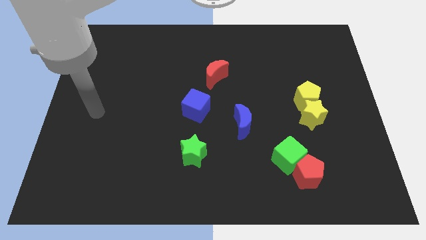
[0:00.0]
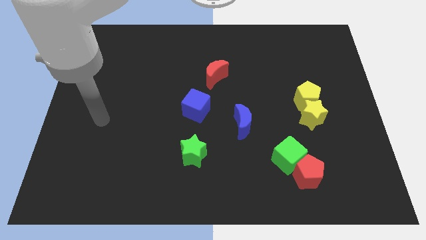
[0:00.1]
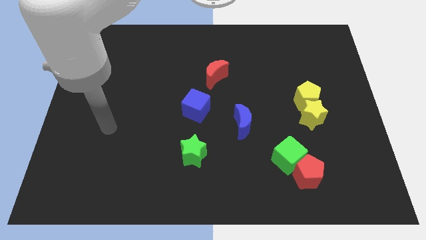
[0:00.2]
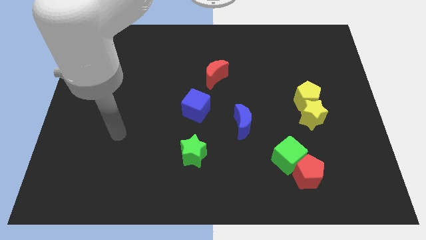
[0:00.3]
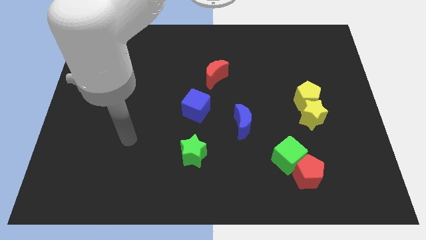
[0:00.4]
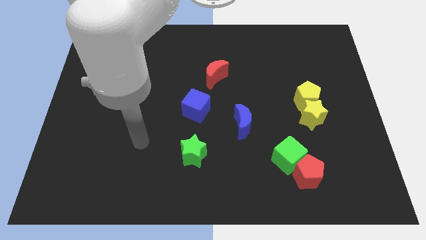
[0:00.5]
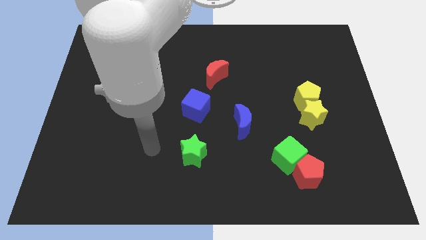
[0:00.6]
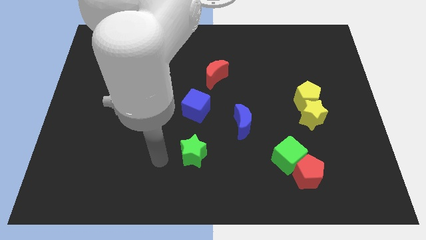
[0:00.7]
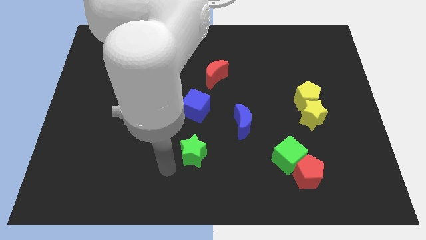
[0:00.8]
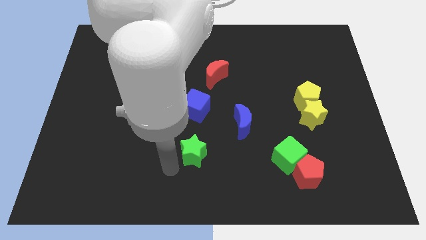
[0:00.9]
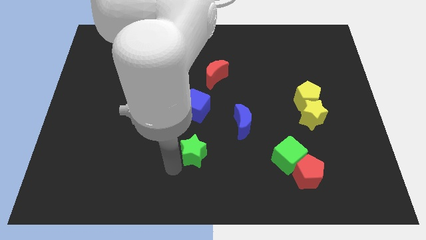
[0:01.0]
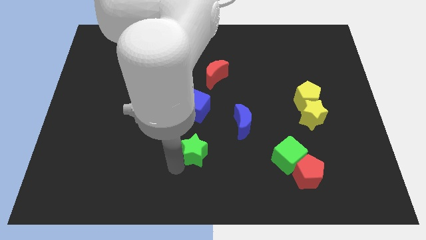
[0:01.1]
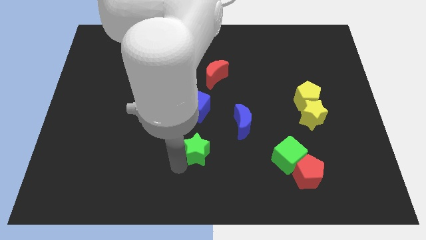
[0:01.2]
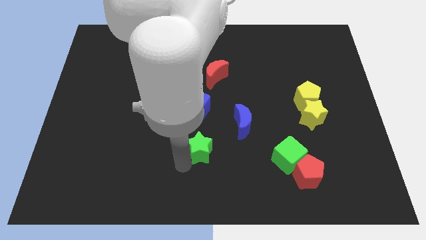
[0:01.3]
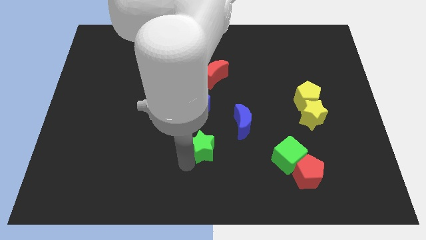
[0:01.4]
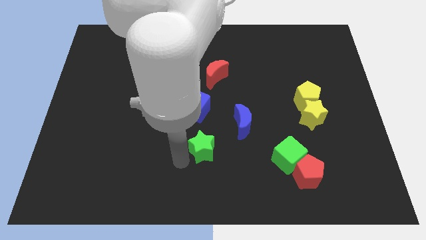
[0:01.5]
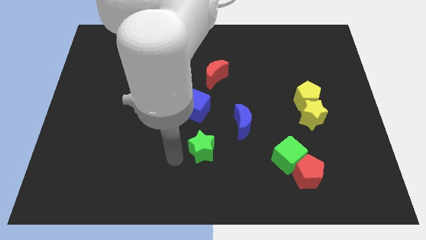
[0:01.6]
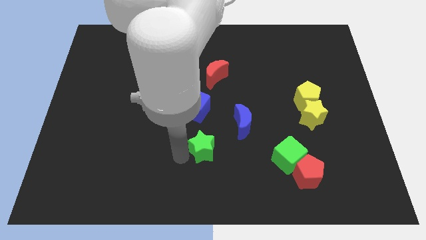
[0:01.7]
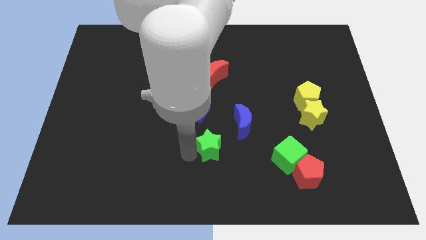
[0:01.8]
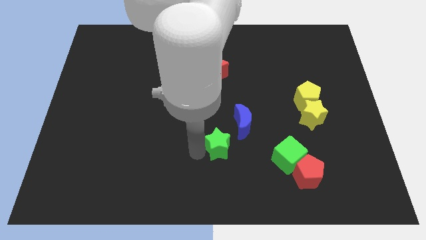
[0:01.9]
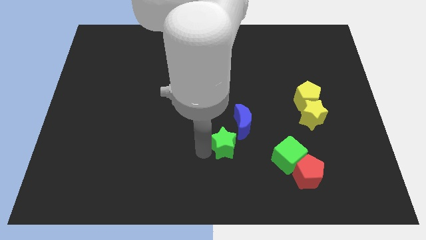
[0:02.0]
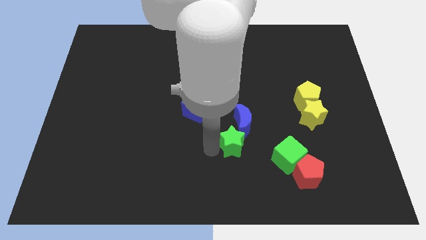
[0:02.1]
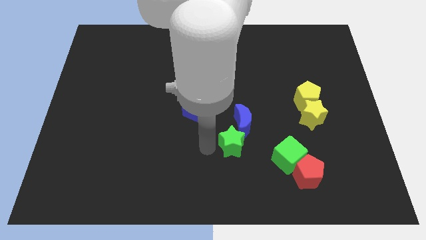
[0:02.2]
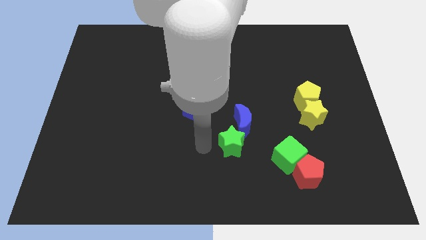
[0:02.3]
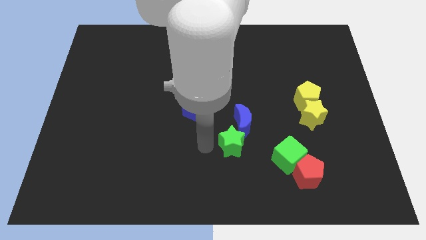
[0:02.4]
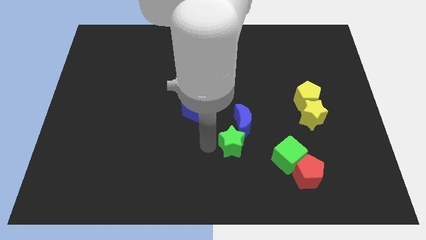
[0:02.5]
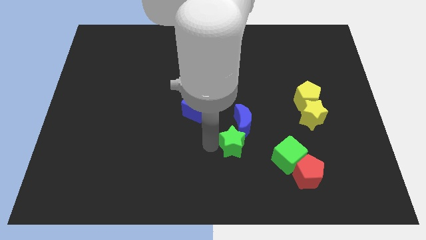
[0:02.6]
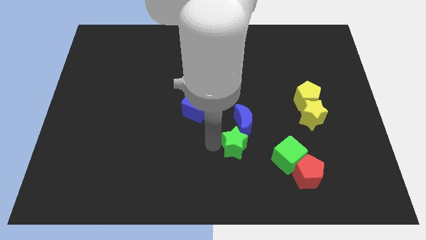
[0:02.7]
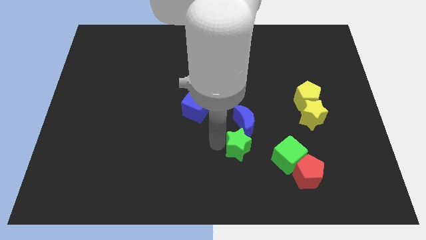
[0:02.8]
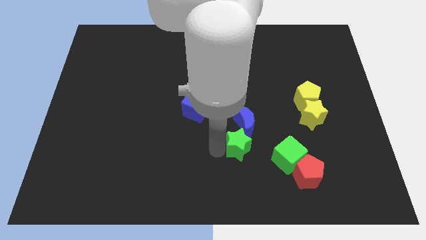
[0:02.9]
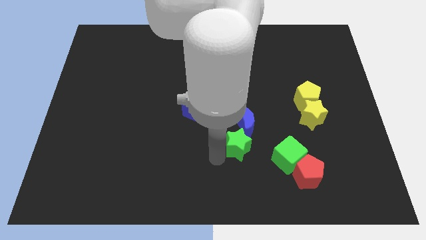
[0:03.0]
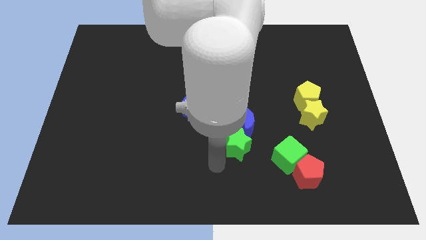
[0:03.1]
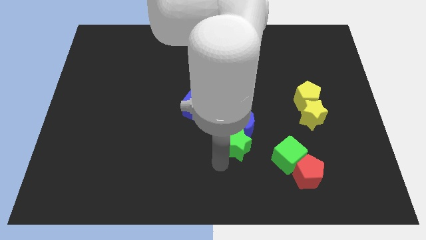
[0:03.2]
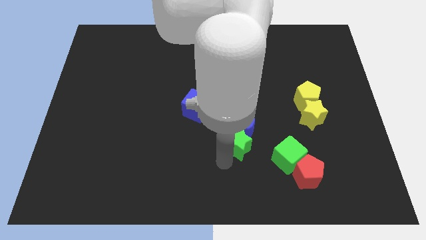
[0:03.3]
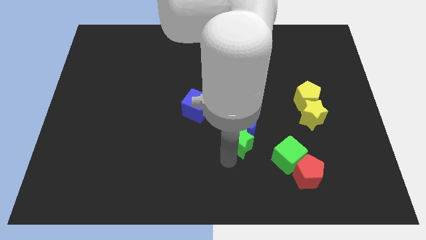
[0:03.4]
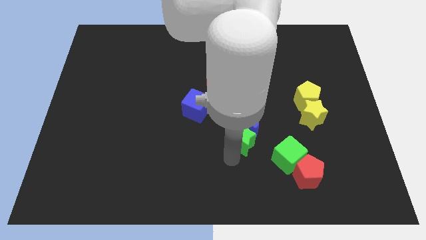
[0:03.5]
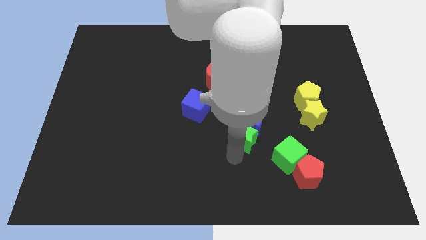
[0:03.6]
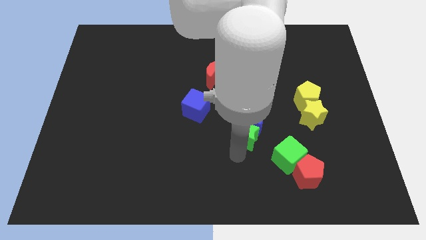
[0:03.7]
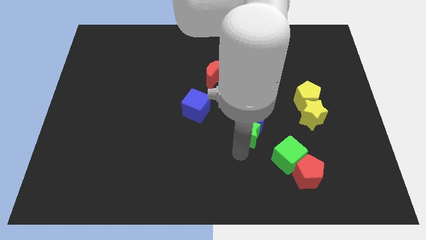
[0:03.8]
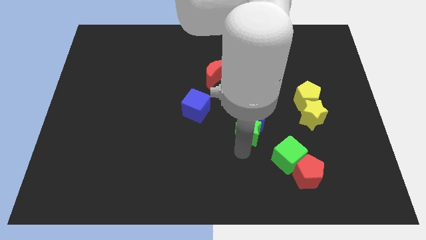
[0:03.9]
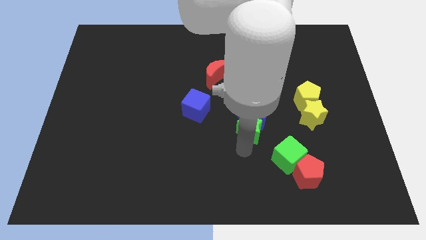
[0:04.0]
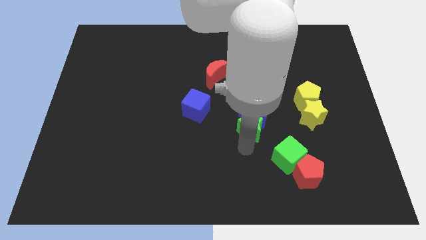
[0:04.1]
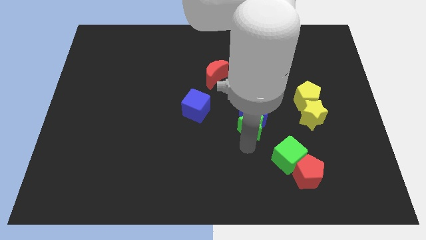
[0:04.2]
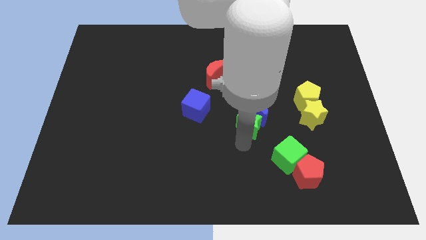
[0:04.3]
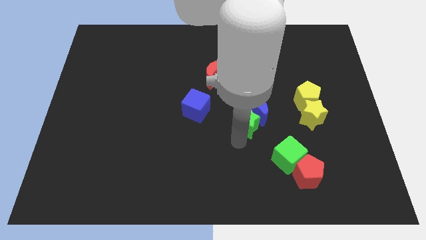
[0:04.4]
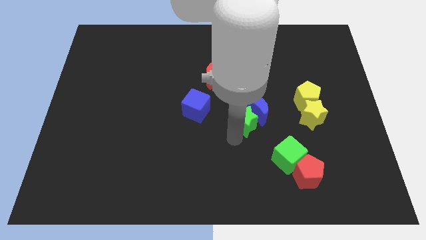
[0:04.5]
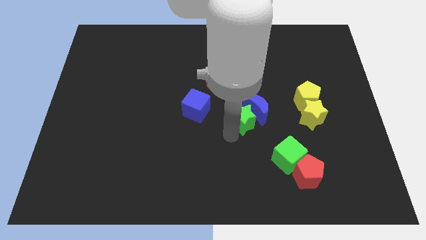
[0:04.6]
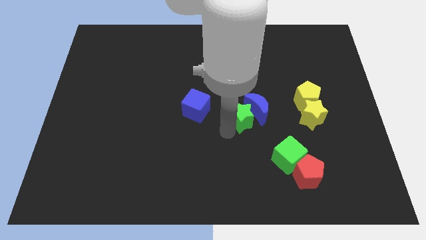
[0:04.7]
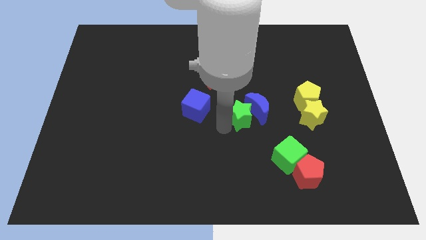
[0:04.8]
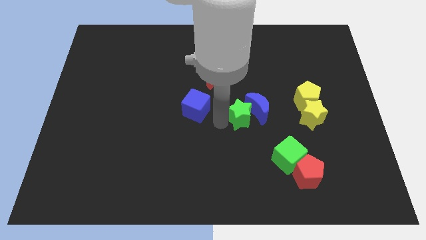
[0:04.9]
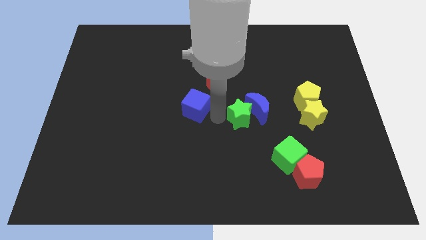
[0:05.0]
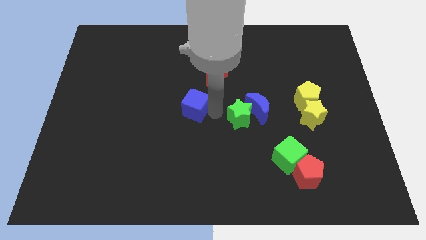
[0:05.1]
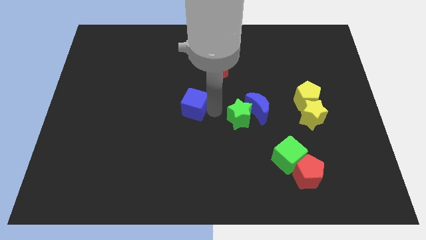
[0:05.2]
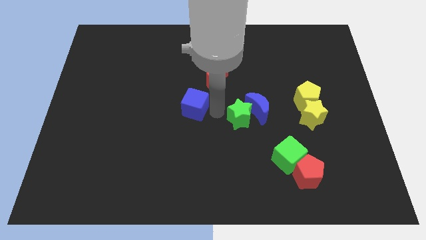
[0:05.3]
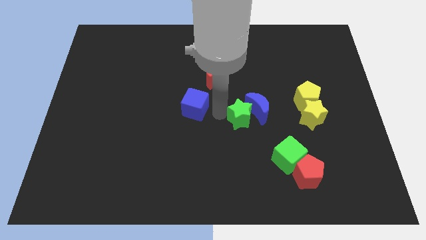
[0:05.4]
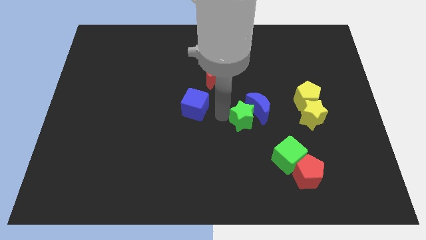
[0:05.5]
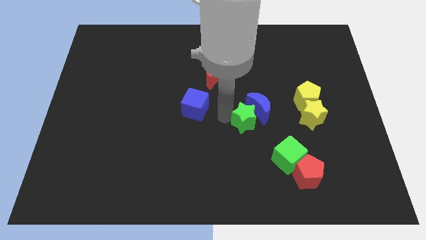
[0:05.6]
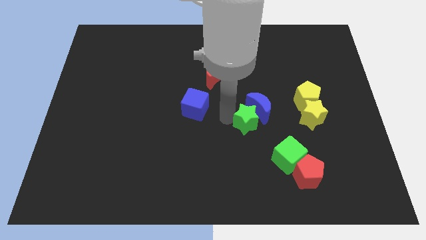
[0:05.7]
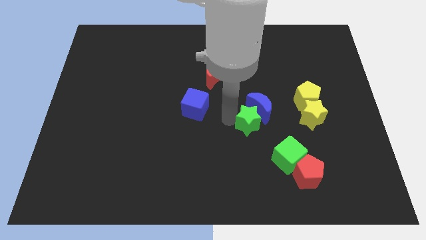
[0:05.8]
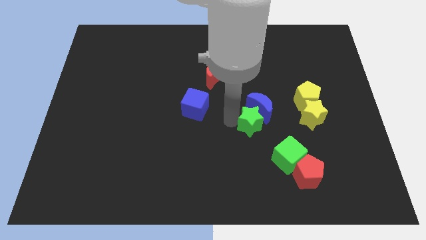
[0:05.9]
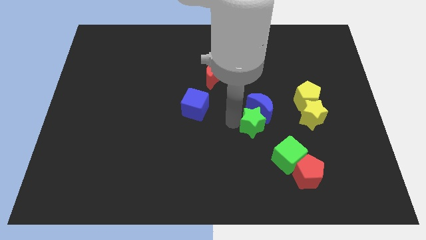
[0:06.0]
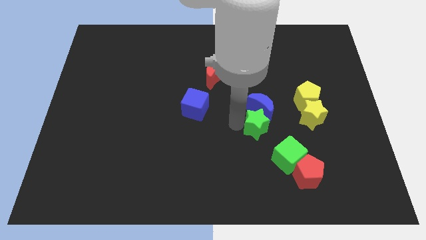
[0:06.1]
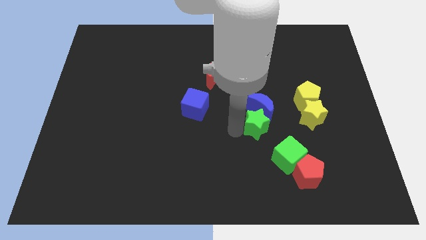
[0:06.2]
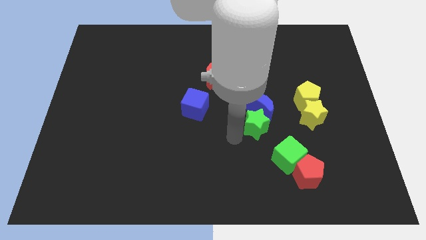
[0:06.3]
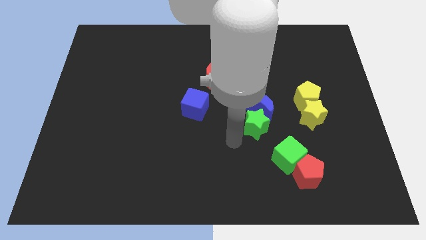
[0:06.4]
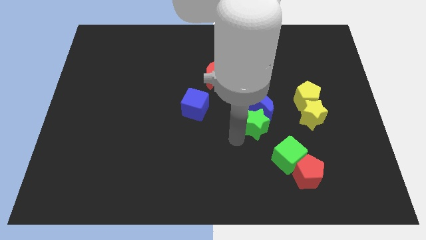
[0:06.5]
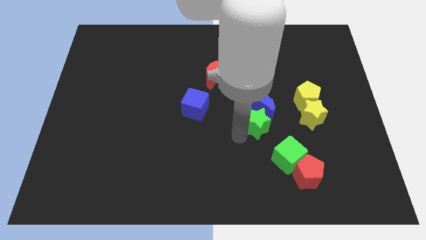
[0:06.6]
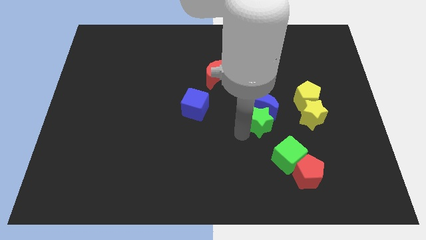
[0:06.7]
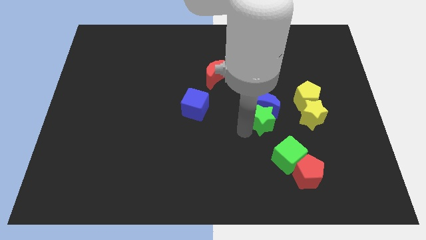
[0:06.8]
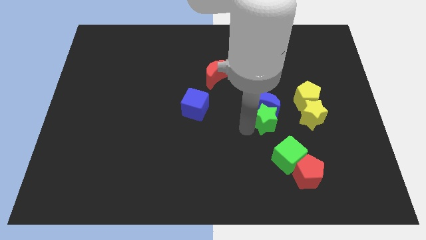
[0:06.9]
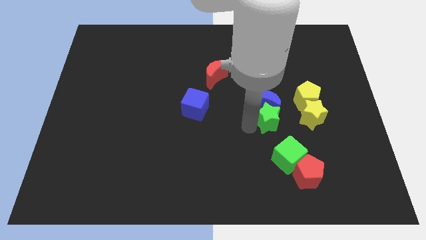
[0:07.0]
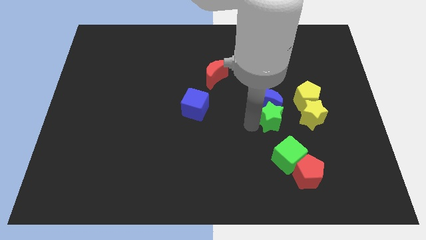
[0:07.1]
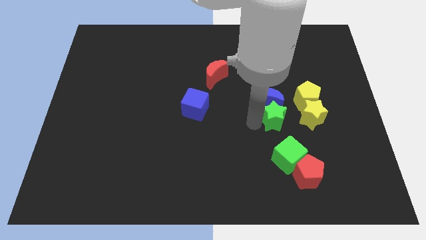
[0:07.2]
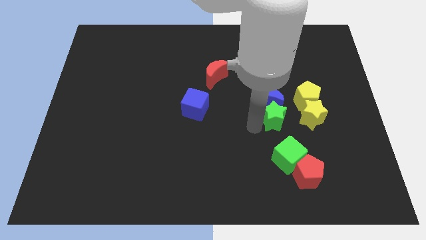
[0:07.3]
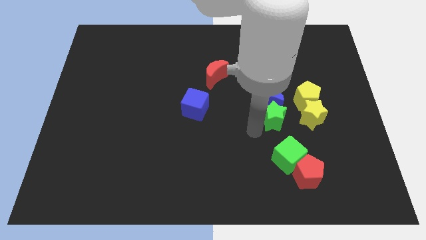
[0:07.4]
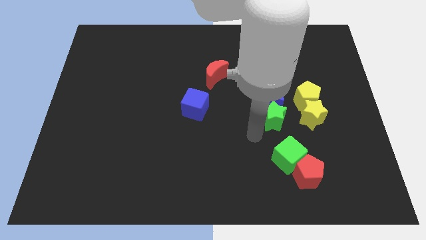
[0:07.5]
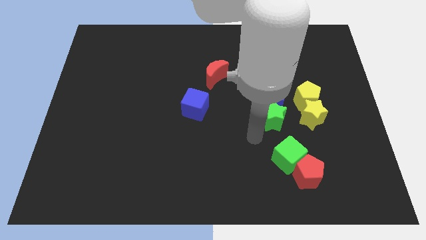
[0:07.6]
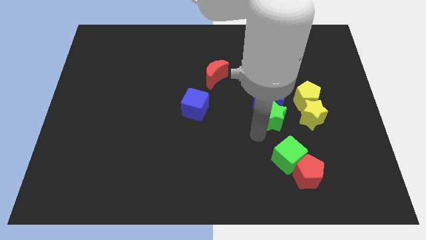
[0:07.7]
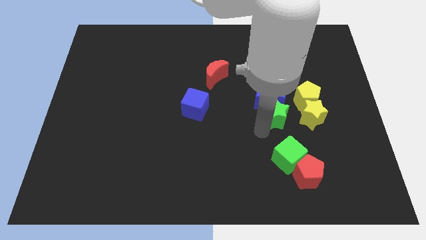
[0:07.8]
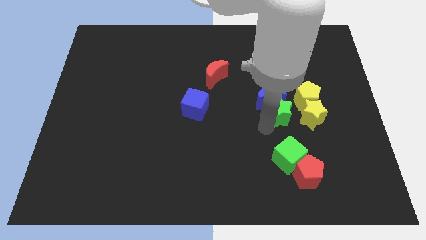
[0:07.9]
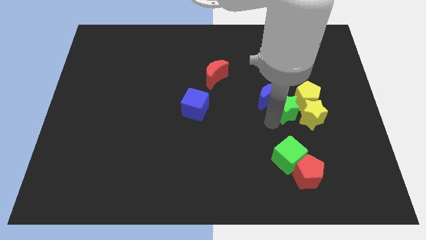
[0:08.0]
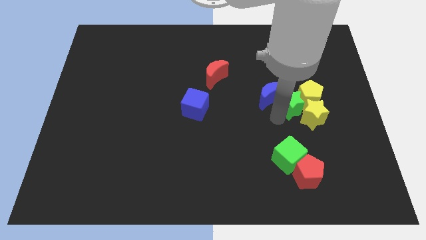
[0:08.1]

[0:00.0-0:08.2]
push the green star towards the yellow pentagon
